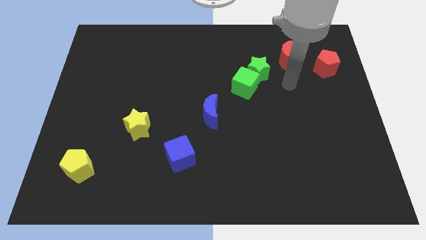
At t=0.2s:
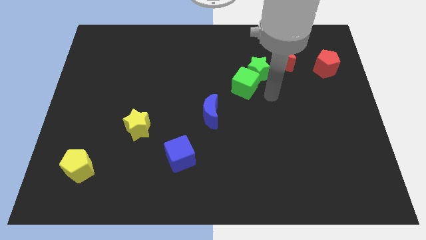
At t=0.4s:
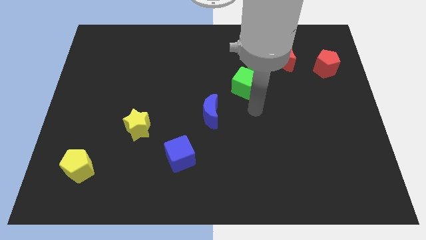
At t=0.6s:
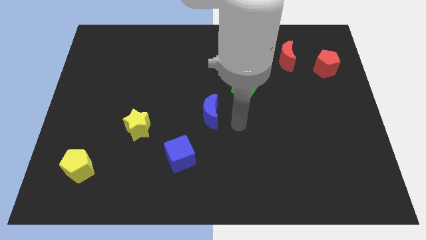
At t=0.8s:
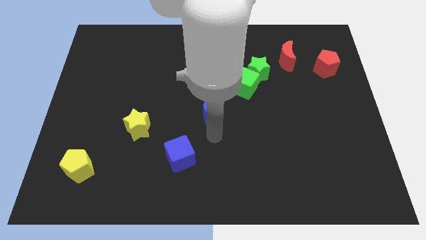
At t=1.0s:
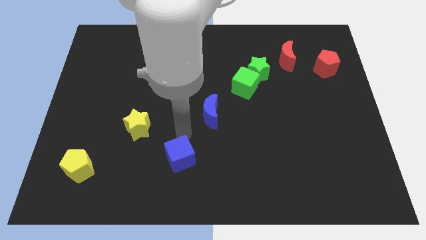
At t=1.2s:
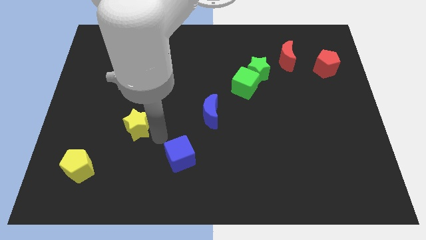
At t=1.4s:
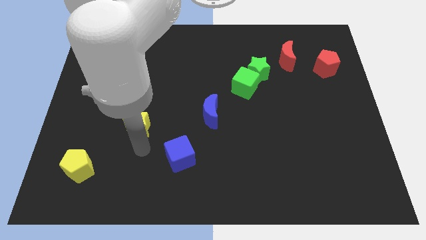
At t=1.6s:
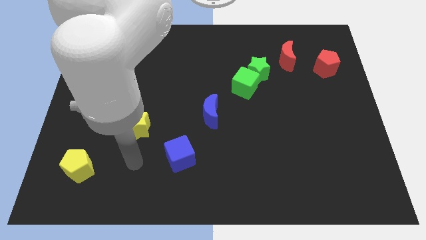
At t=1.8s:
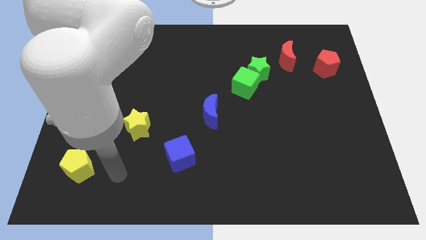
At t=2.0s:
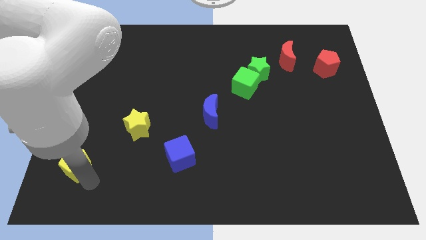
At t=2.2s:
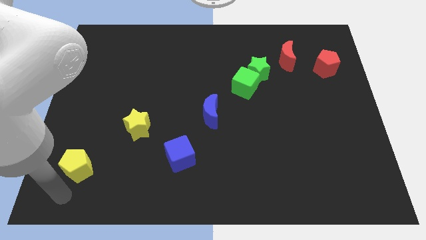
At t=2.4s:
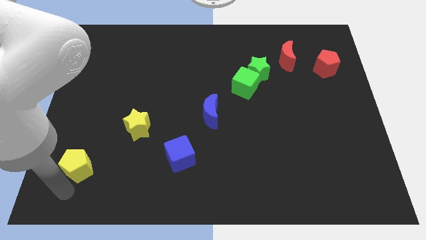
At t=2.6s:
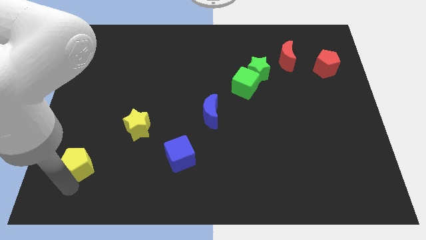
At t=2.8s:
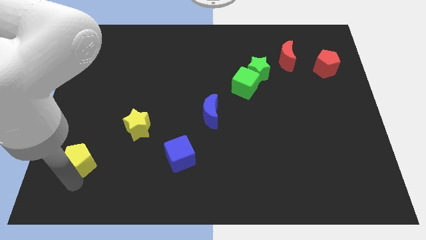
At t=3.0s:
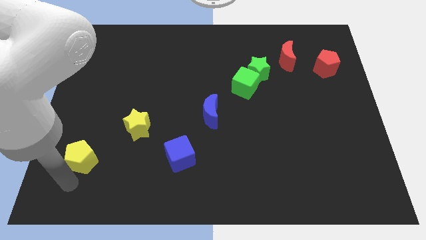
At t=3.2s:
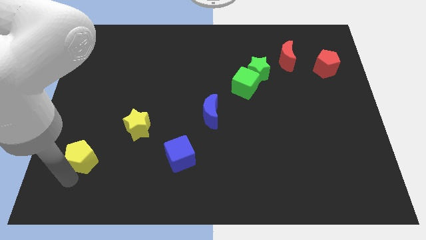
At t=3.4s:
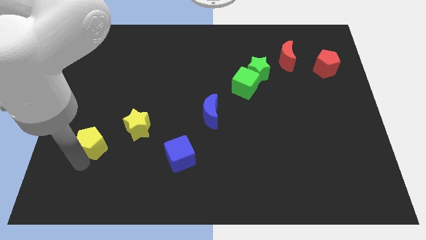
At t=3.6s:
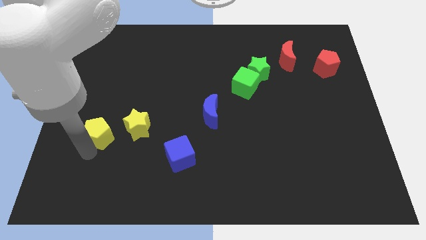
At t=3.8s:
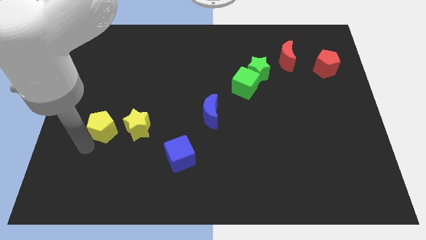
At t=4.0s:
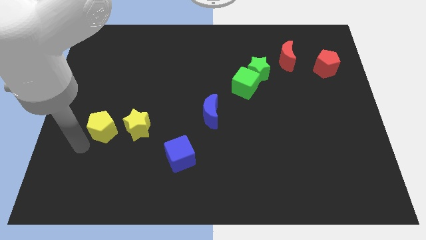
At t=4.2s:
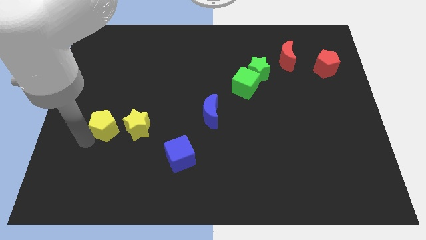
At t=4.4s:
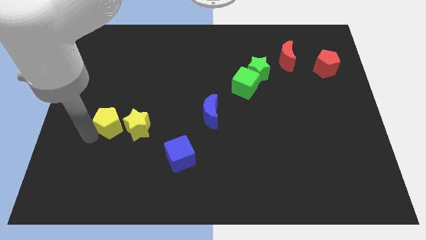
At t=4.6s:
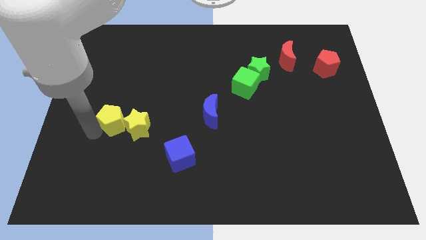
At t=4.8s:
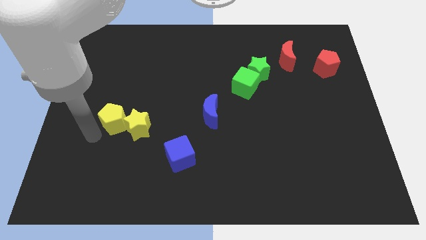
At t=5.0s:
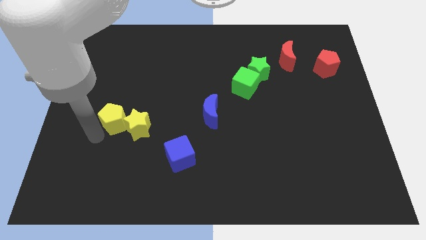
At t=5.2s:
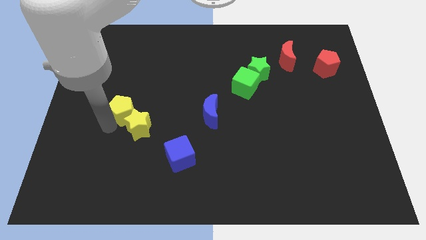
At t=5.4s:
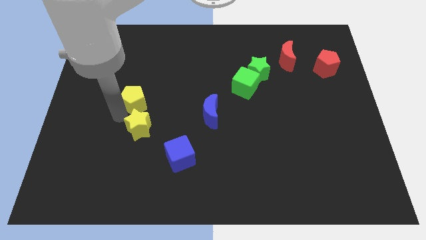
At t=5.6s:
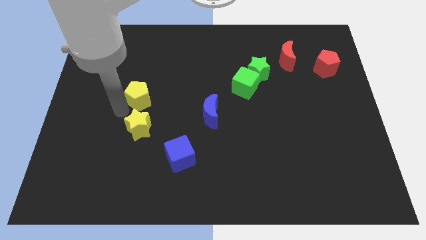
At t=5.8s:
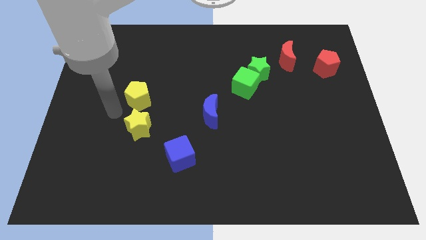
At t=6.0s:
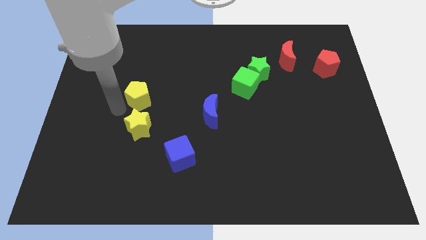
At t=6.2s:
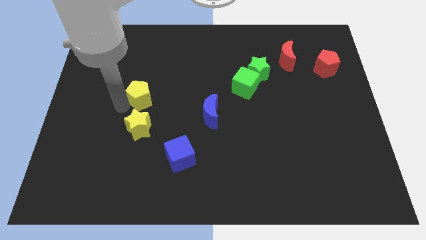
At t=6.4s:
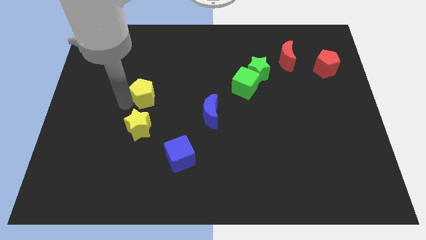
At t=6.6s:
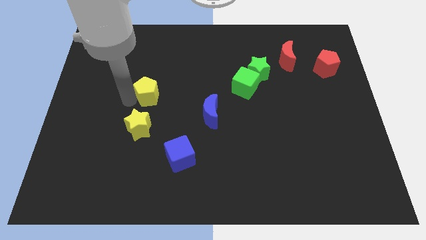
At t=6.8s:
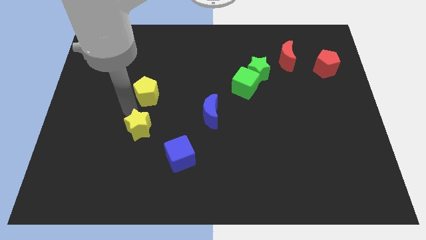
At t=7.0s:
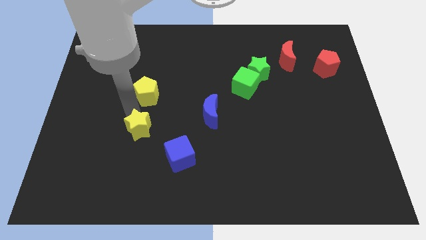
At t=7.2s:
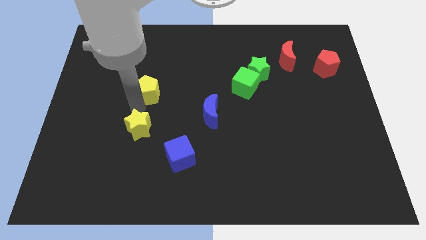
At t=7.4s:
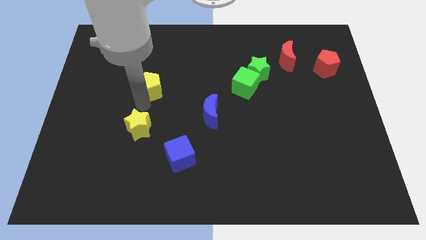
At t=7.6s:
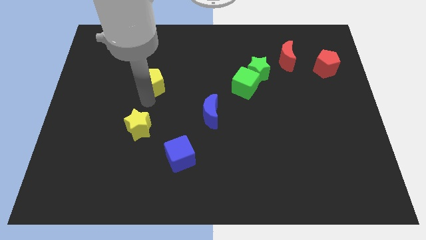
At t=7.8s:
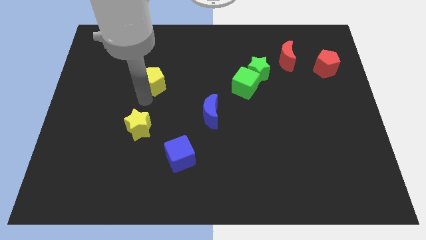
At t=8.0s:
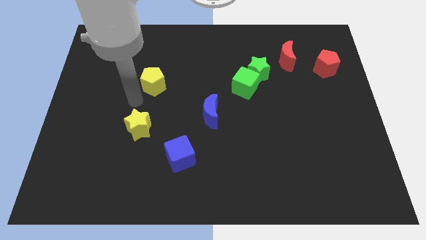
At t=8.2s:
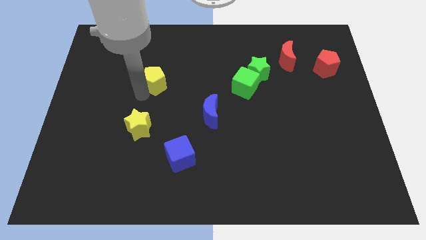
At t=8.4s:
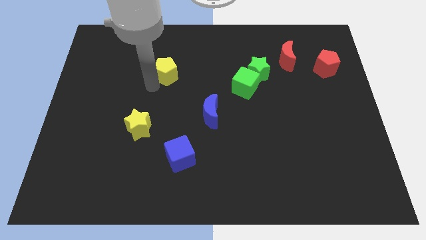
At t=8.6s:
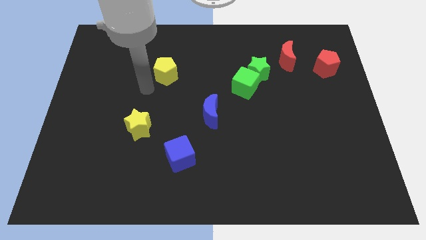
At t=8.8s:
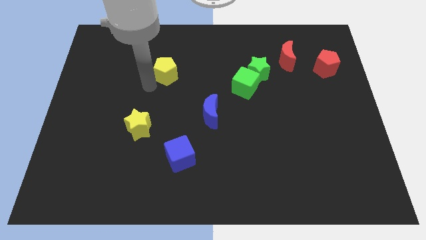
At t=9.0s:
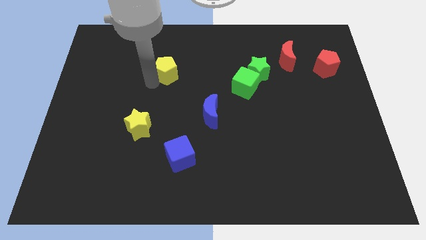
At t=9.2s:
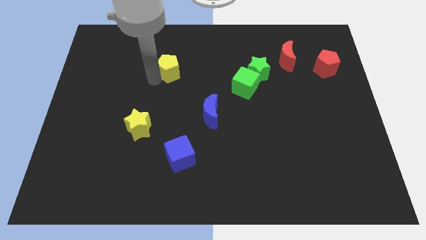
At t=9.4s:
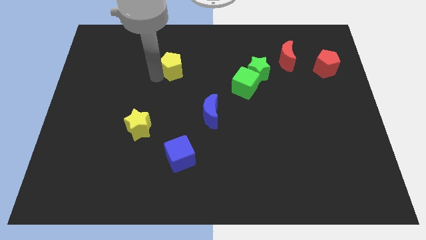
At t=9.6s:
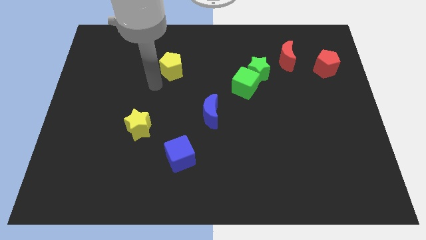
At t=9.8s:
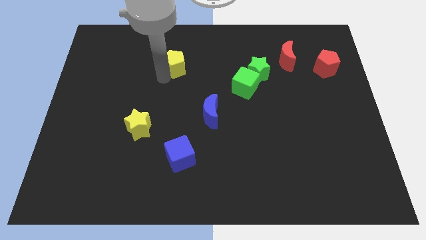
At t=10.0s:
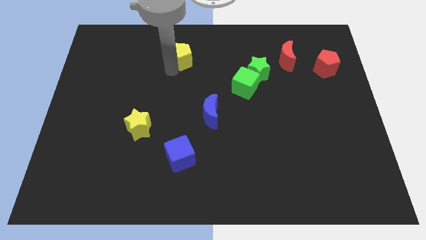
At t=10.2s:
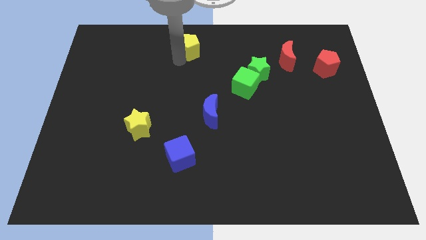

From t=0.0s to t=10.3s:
put the yellow pentagon to the towards your base

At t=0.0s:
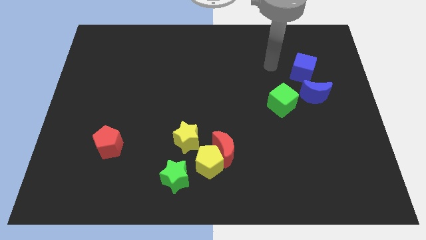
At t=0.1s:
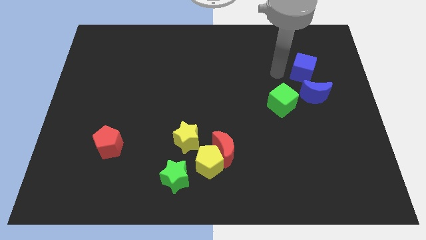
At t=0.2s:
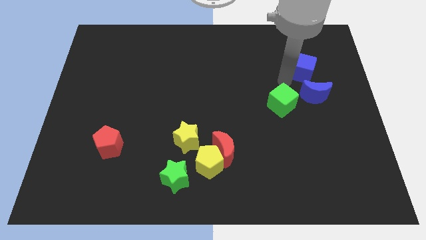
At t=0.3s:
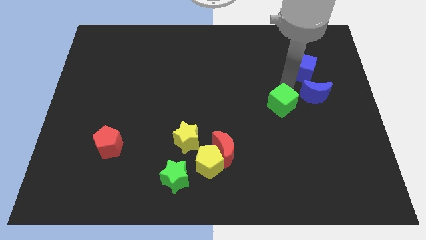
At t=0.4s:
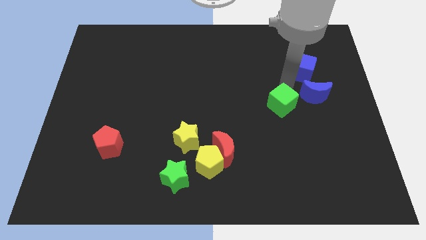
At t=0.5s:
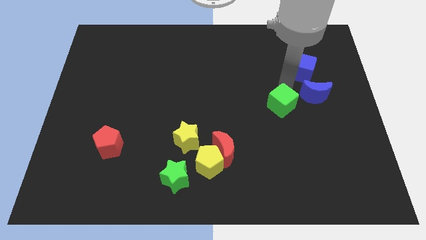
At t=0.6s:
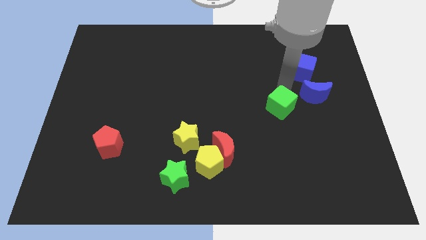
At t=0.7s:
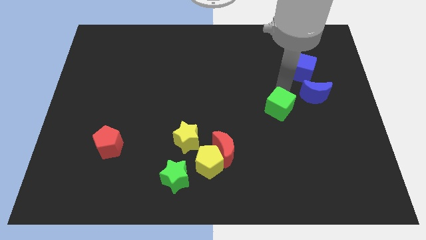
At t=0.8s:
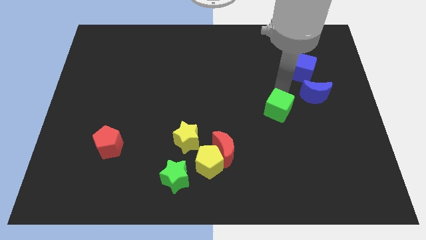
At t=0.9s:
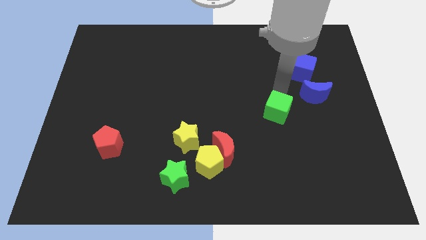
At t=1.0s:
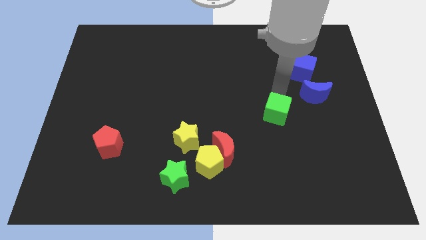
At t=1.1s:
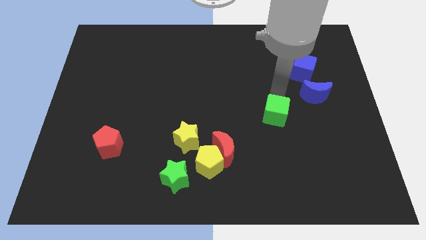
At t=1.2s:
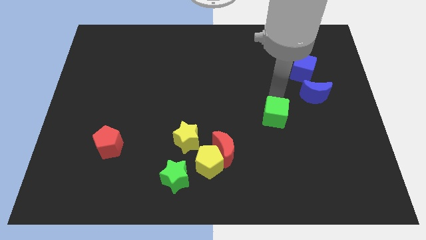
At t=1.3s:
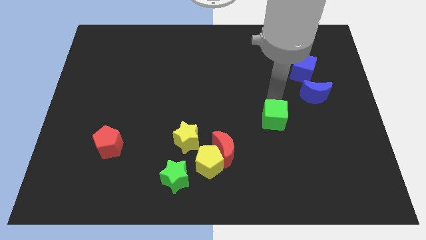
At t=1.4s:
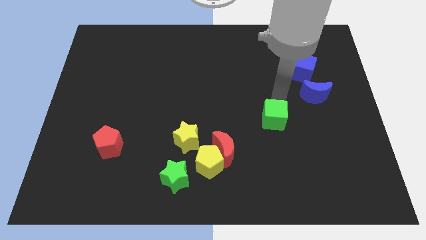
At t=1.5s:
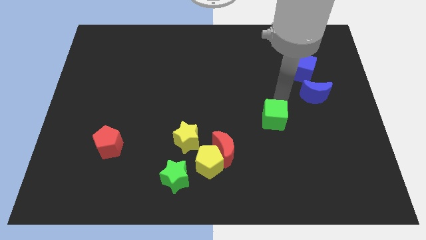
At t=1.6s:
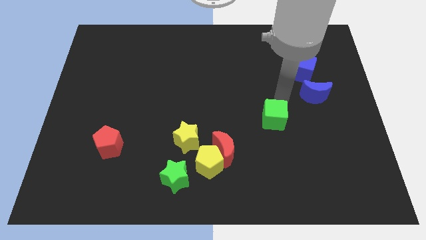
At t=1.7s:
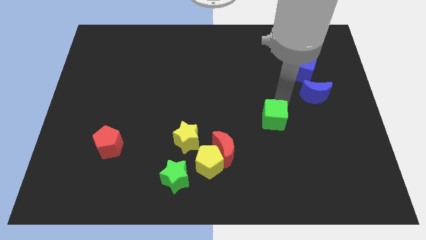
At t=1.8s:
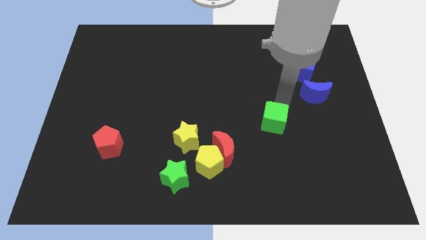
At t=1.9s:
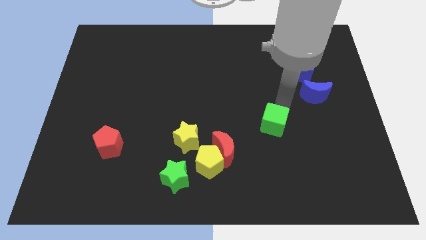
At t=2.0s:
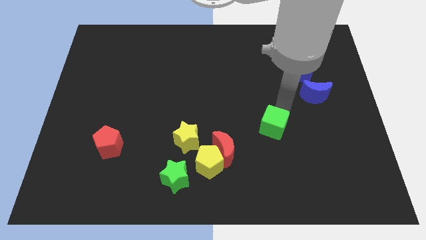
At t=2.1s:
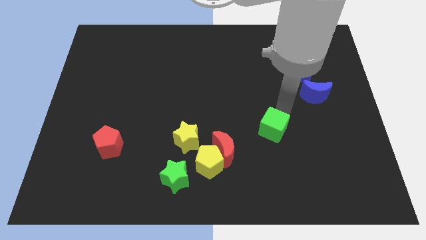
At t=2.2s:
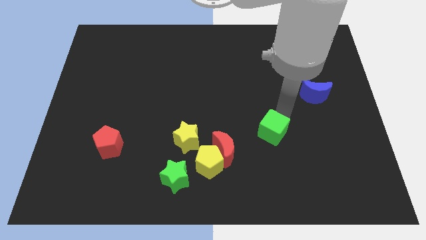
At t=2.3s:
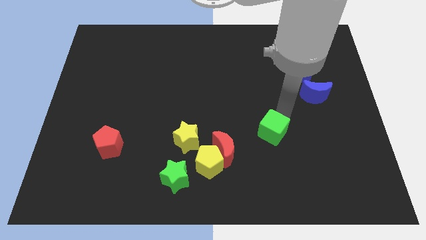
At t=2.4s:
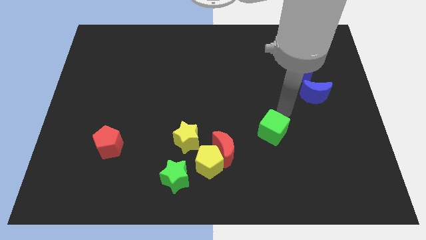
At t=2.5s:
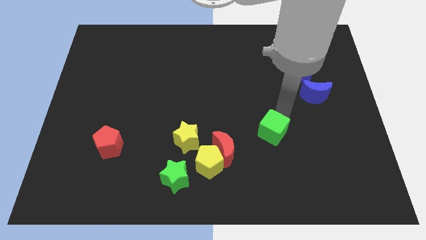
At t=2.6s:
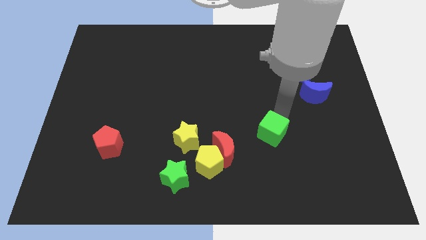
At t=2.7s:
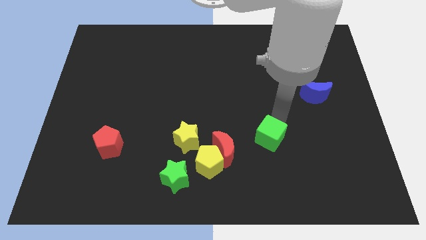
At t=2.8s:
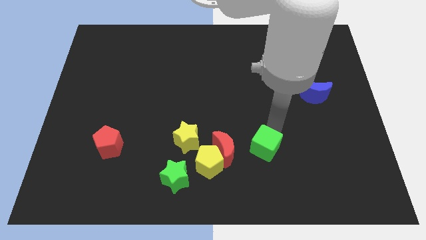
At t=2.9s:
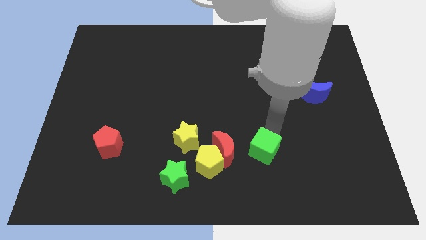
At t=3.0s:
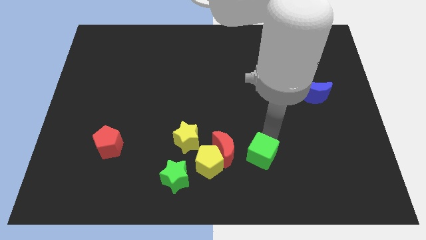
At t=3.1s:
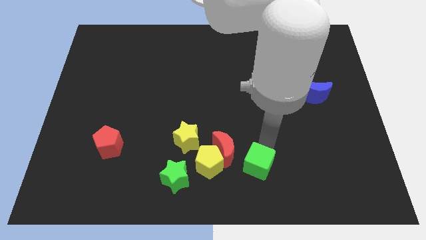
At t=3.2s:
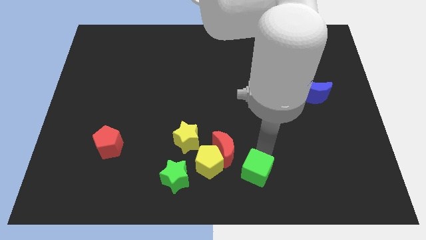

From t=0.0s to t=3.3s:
slide the green cube to the bottom
